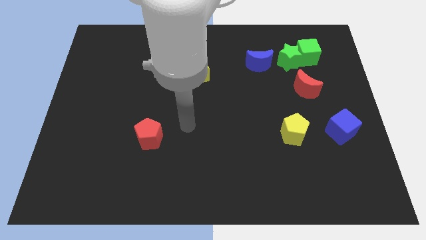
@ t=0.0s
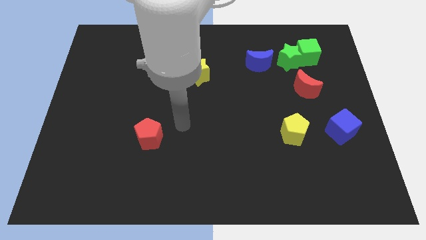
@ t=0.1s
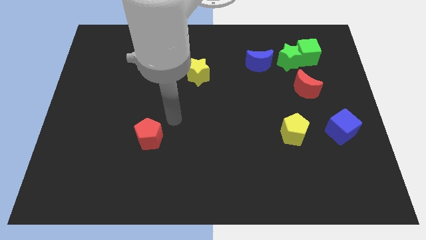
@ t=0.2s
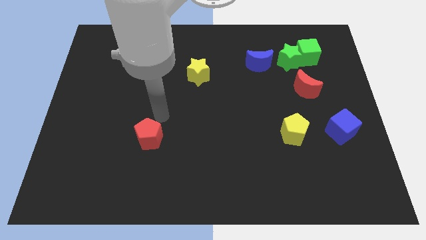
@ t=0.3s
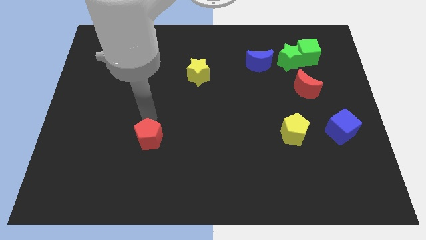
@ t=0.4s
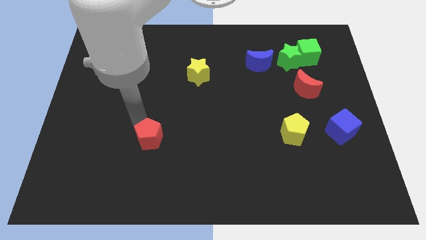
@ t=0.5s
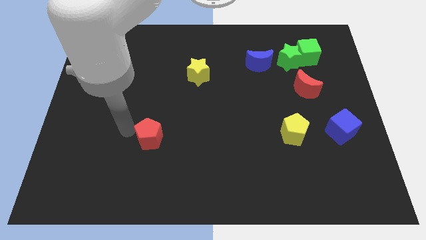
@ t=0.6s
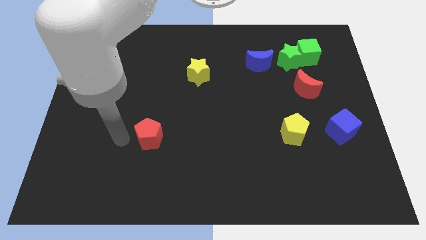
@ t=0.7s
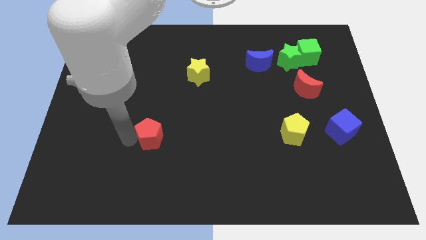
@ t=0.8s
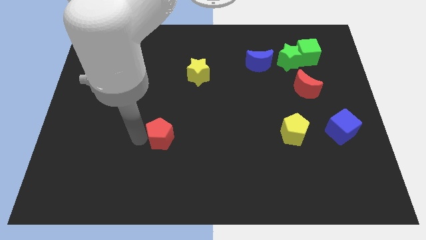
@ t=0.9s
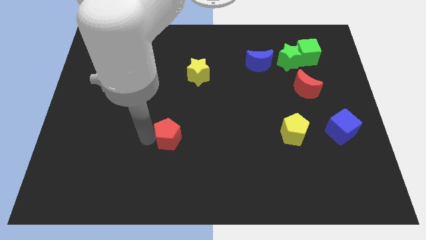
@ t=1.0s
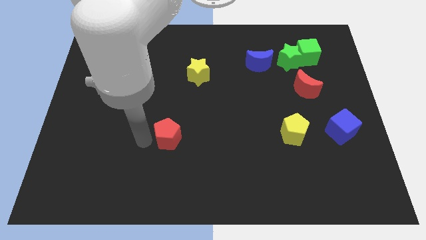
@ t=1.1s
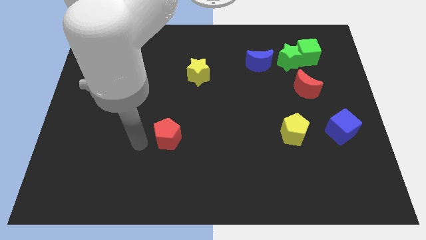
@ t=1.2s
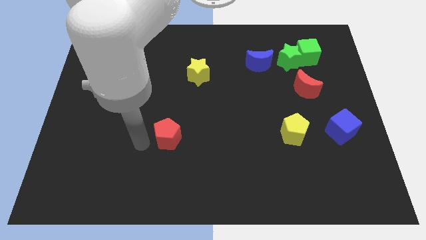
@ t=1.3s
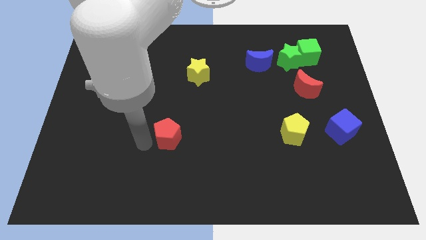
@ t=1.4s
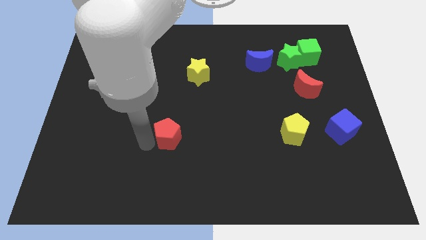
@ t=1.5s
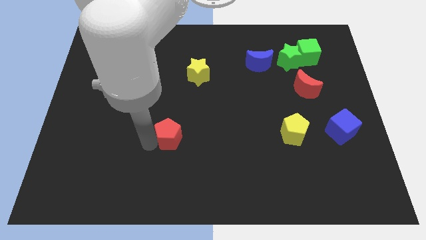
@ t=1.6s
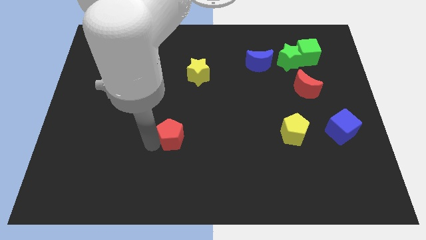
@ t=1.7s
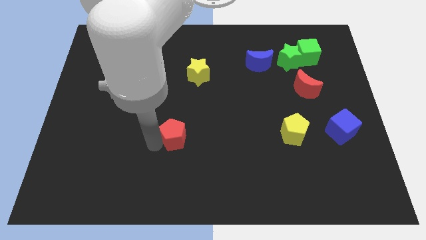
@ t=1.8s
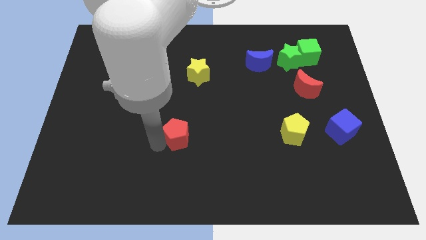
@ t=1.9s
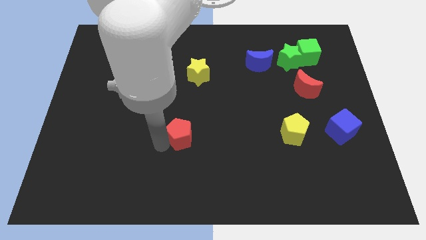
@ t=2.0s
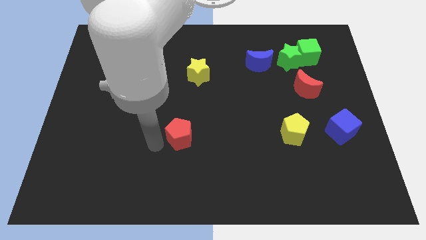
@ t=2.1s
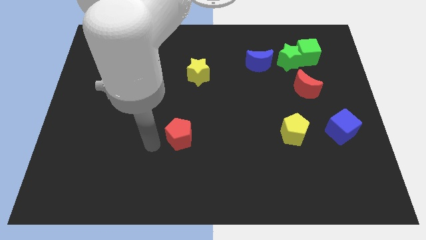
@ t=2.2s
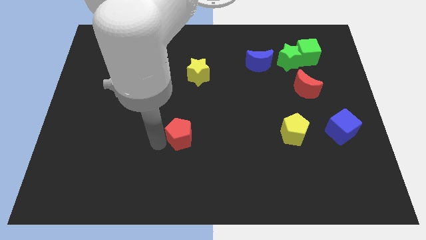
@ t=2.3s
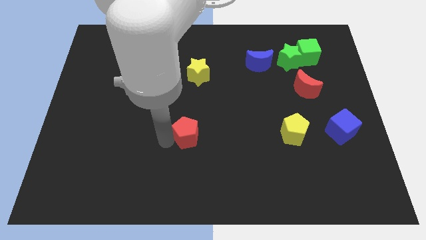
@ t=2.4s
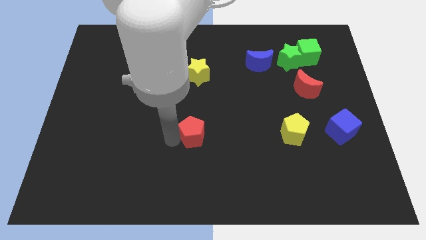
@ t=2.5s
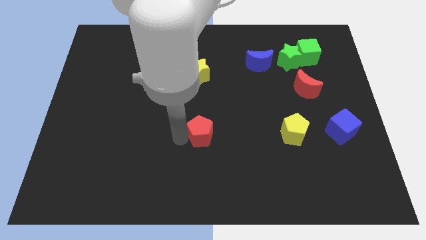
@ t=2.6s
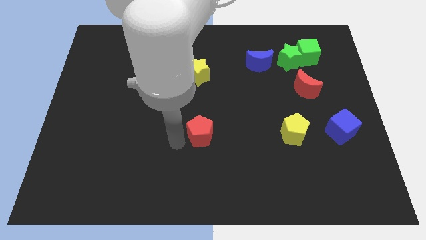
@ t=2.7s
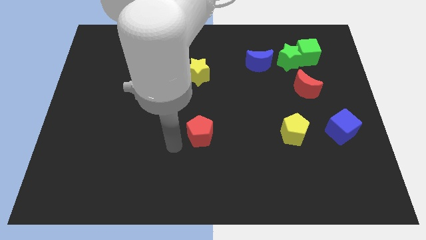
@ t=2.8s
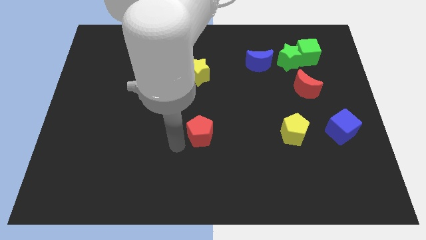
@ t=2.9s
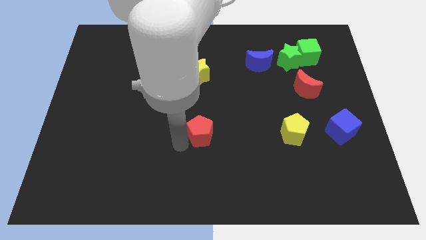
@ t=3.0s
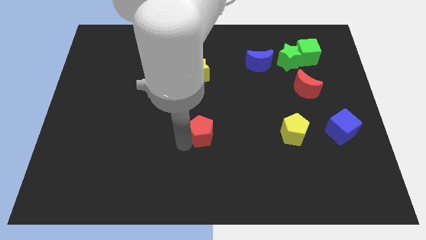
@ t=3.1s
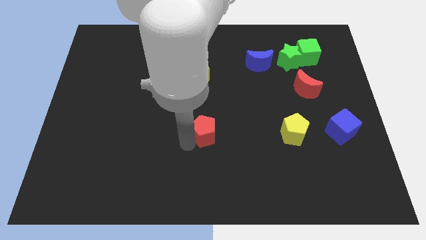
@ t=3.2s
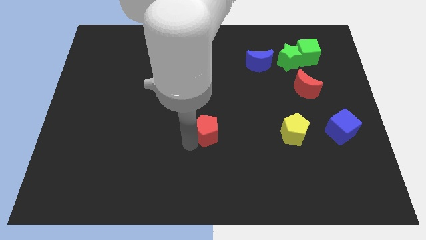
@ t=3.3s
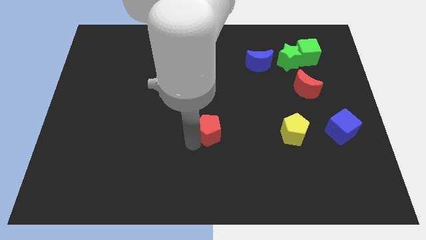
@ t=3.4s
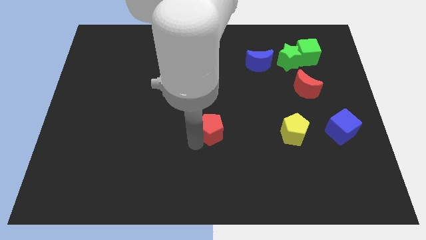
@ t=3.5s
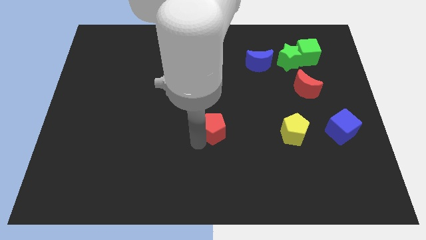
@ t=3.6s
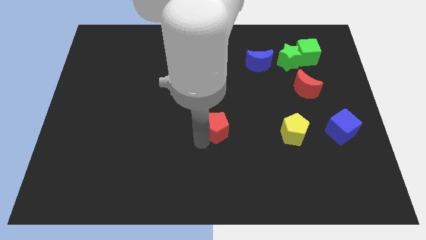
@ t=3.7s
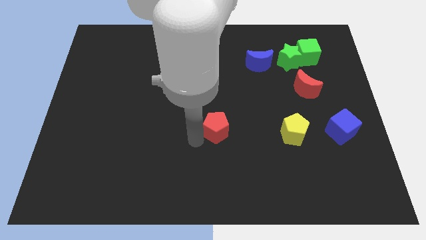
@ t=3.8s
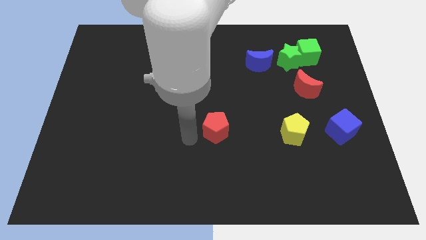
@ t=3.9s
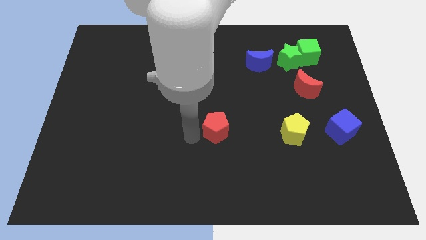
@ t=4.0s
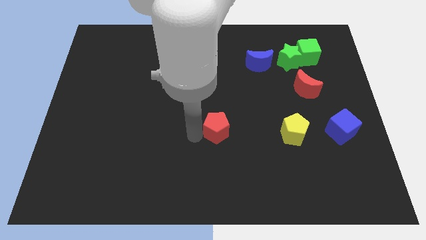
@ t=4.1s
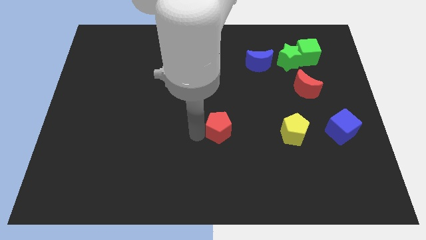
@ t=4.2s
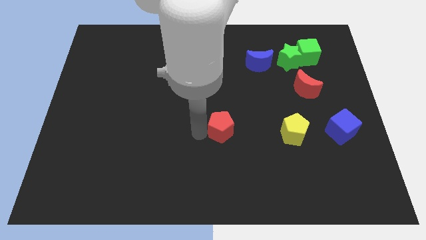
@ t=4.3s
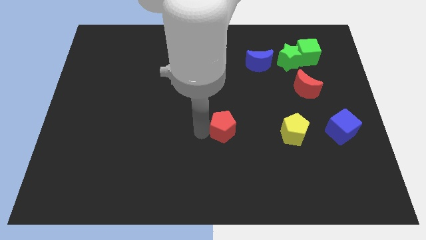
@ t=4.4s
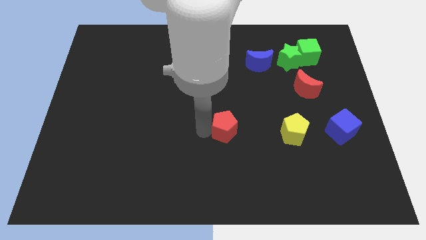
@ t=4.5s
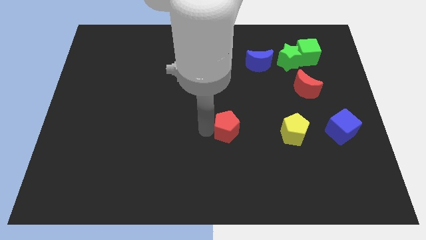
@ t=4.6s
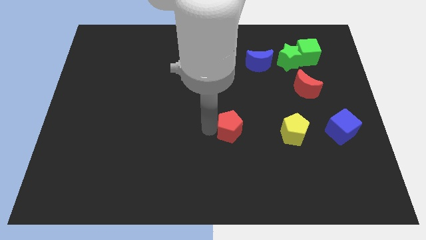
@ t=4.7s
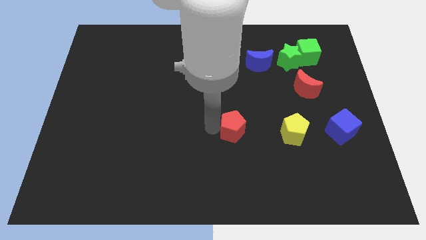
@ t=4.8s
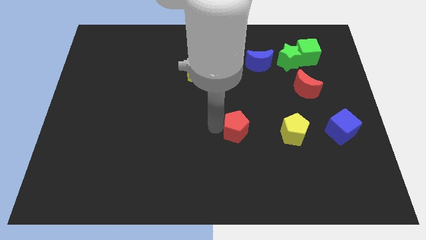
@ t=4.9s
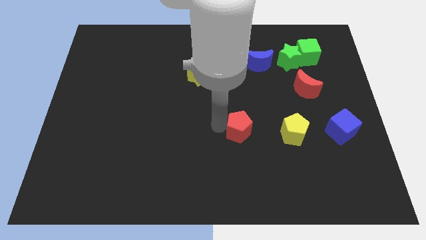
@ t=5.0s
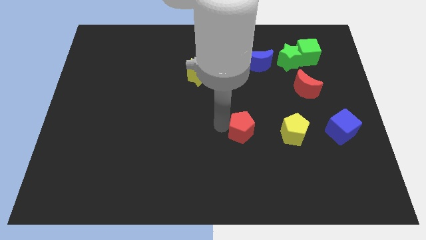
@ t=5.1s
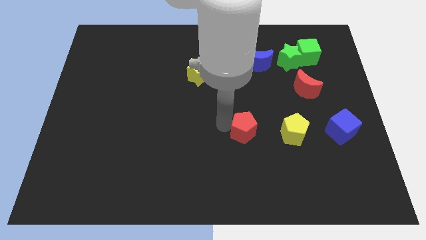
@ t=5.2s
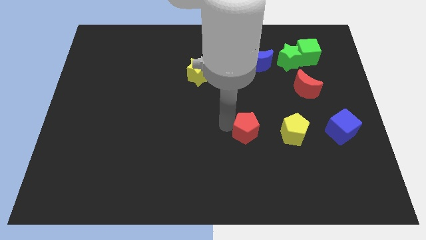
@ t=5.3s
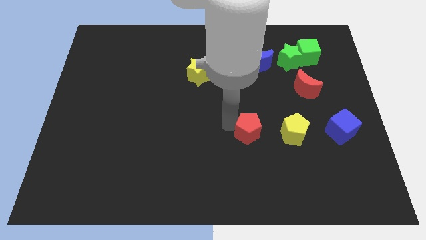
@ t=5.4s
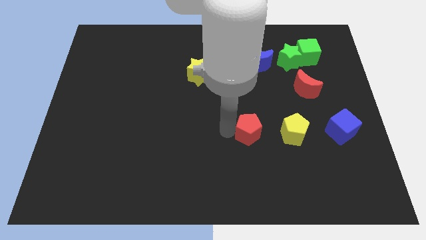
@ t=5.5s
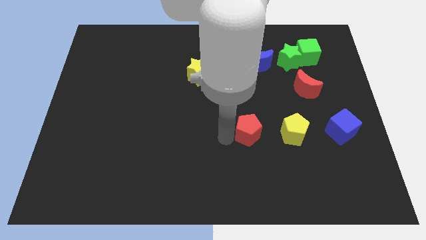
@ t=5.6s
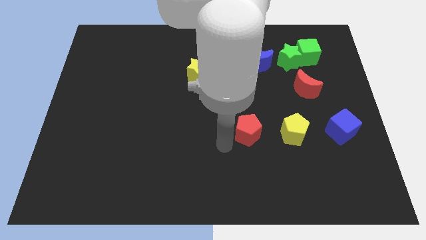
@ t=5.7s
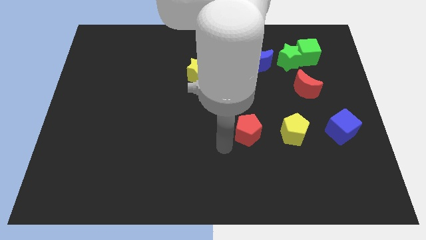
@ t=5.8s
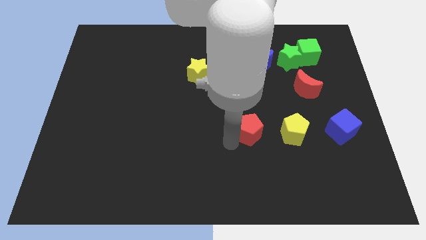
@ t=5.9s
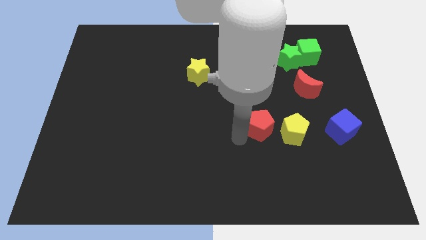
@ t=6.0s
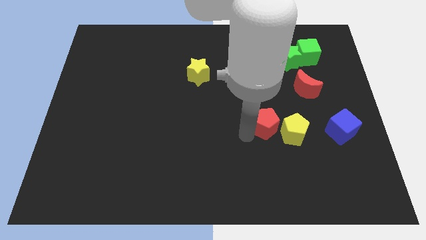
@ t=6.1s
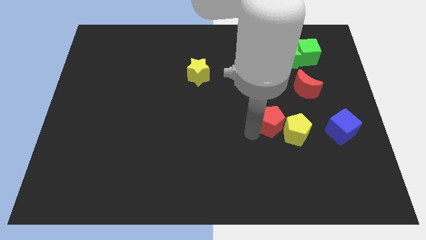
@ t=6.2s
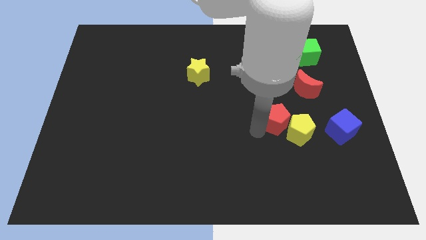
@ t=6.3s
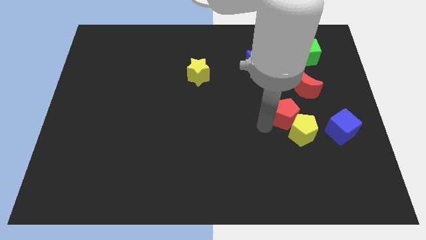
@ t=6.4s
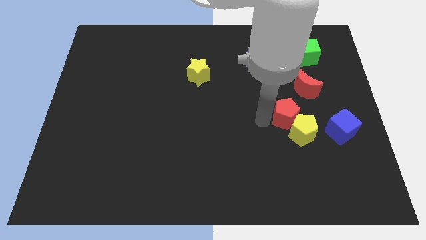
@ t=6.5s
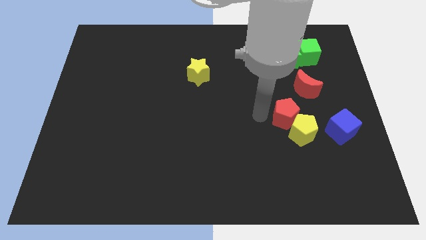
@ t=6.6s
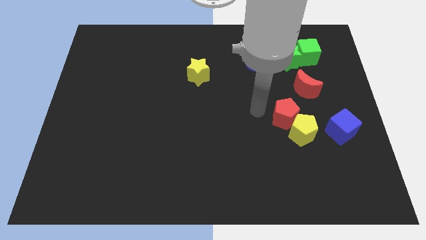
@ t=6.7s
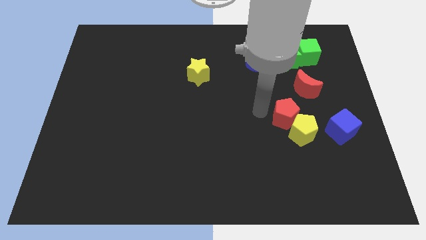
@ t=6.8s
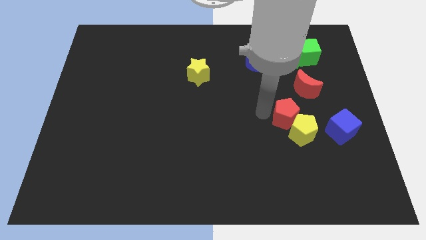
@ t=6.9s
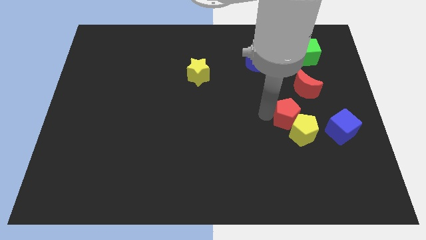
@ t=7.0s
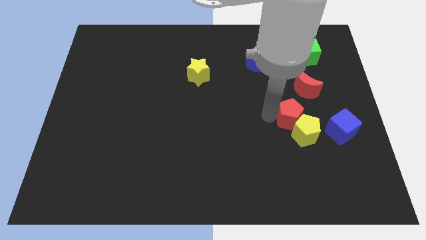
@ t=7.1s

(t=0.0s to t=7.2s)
push the red pentagon below the red moon
